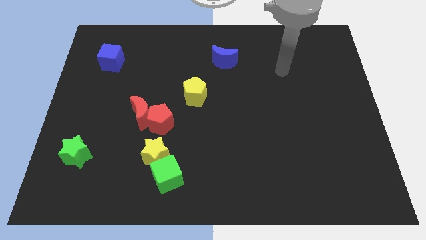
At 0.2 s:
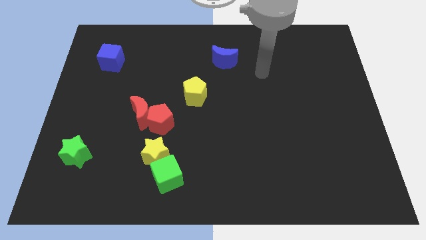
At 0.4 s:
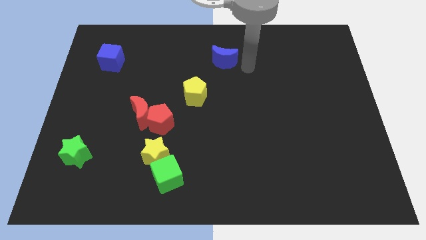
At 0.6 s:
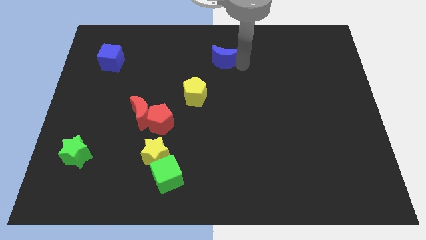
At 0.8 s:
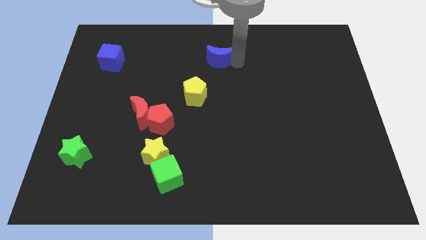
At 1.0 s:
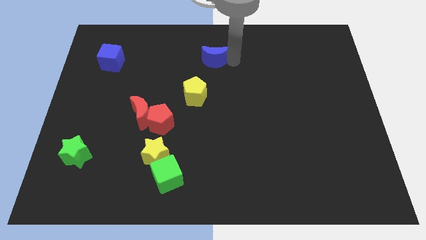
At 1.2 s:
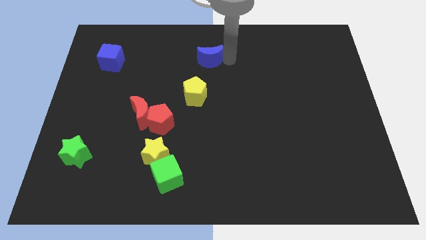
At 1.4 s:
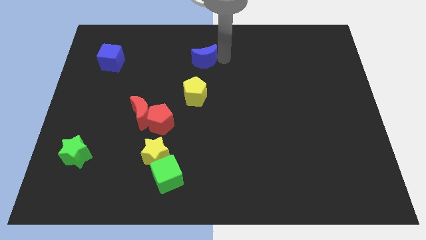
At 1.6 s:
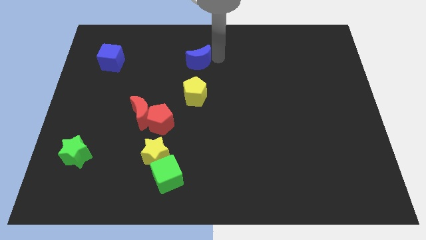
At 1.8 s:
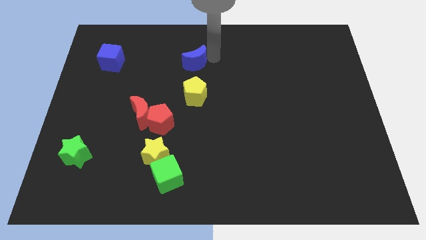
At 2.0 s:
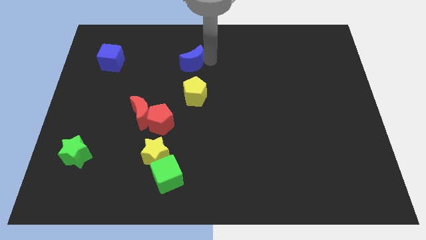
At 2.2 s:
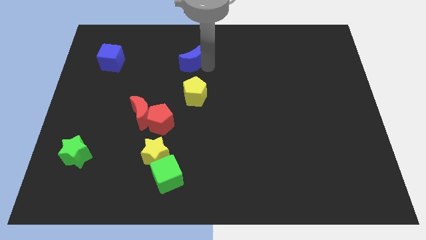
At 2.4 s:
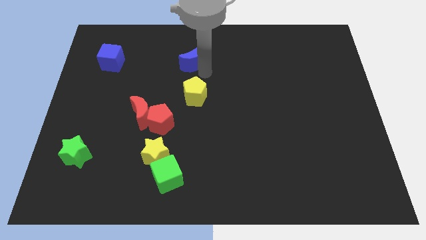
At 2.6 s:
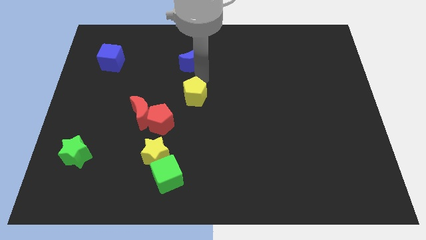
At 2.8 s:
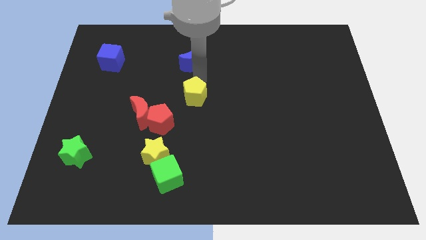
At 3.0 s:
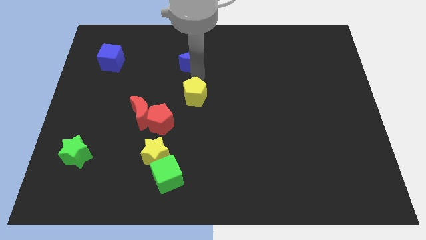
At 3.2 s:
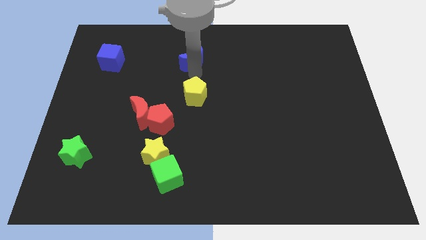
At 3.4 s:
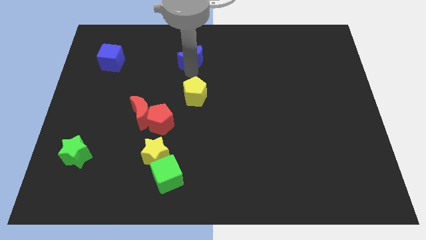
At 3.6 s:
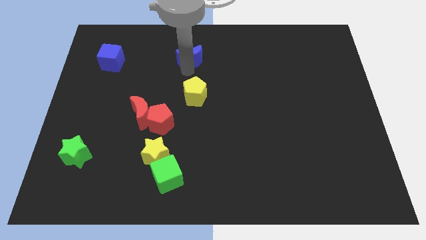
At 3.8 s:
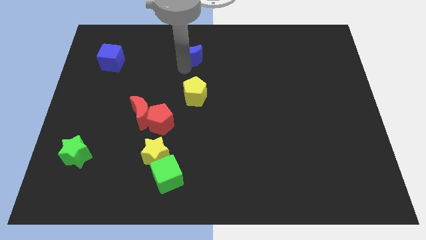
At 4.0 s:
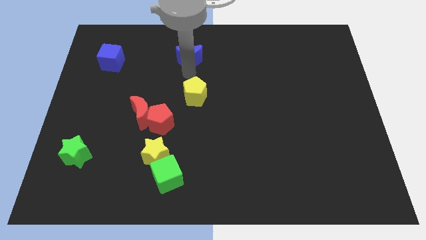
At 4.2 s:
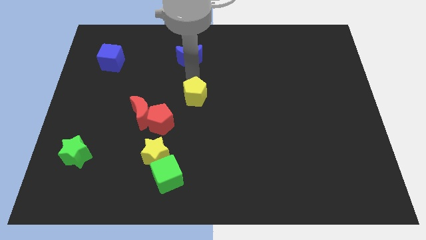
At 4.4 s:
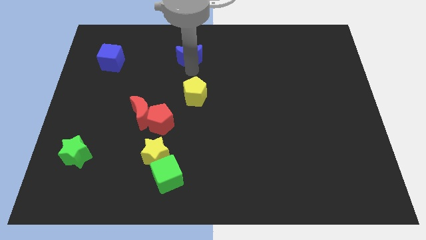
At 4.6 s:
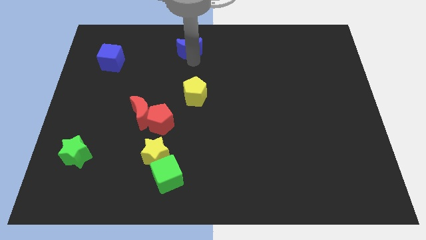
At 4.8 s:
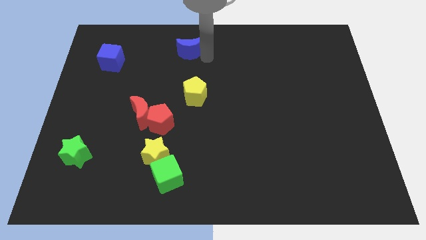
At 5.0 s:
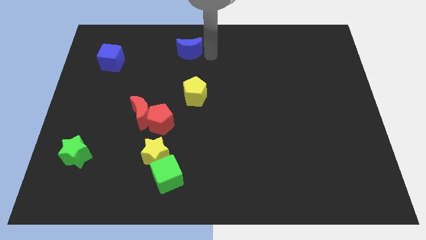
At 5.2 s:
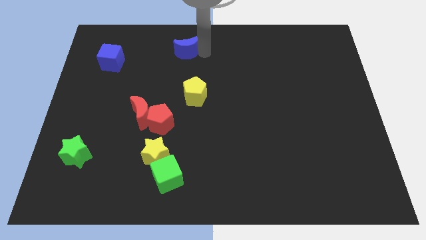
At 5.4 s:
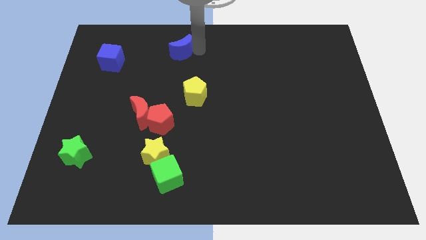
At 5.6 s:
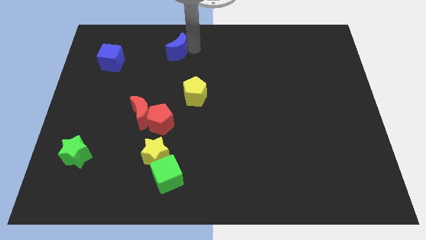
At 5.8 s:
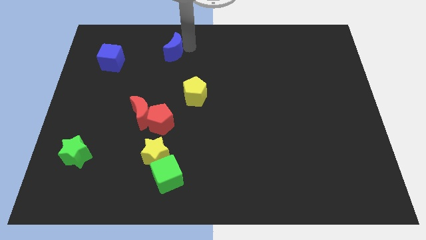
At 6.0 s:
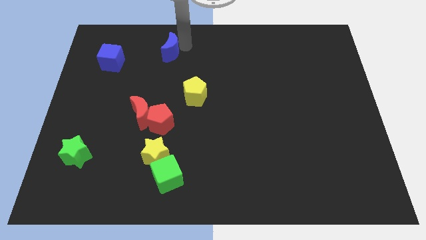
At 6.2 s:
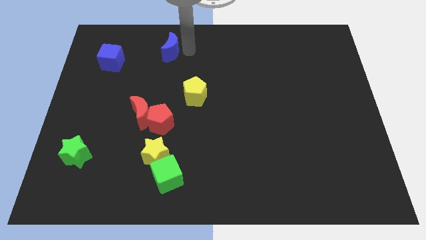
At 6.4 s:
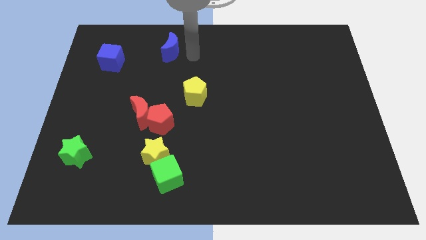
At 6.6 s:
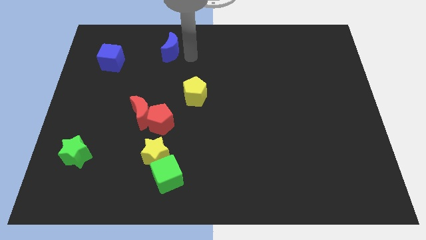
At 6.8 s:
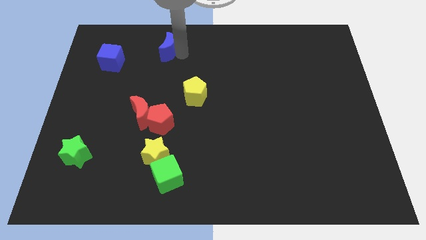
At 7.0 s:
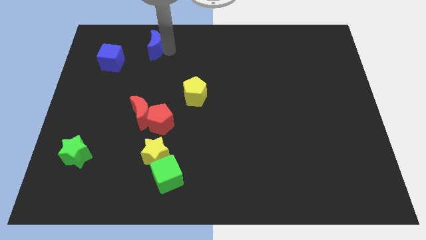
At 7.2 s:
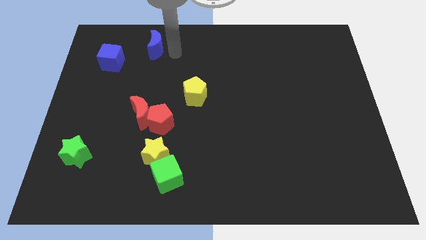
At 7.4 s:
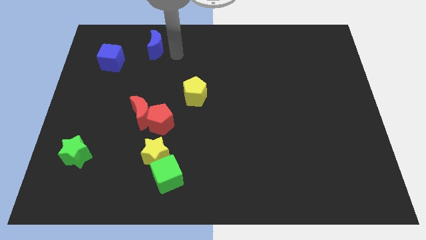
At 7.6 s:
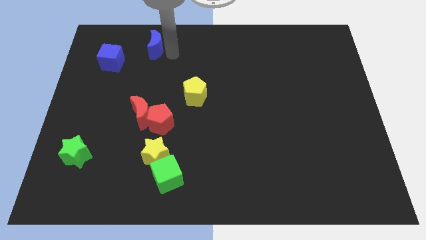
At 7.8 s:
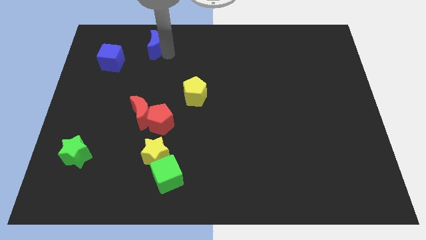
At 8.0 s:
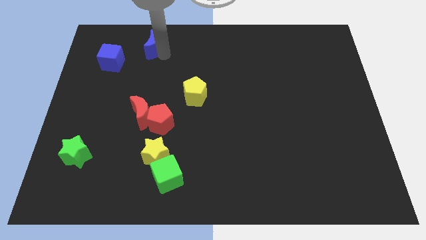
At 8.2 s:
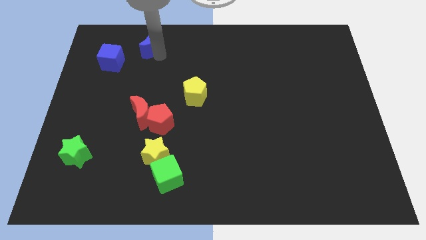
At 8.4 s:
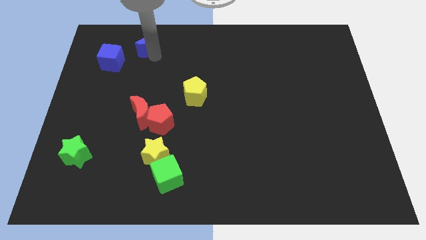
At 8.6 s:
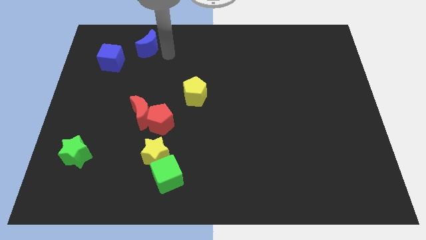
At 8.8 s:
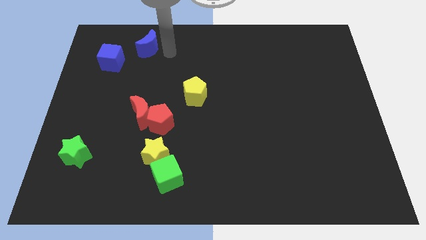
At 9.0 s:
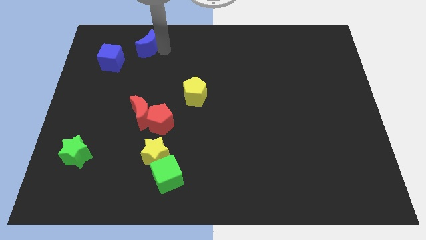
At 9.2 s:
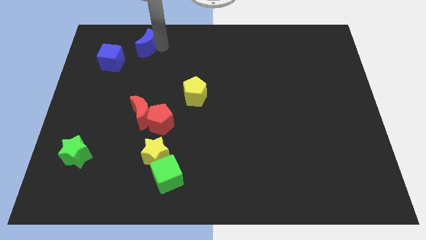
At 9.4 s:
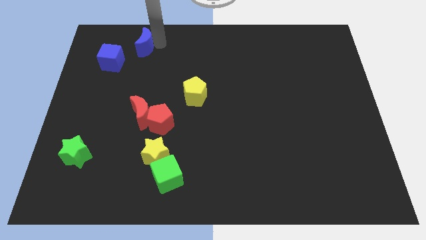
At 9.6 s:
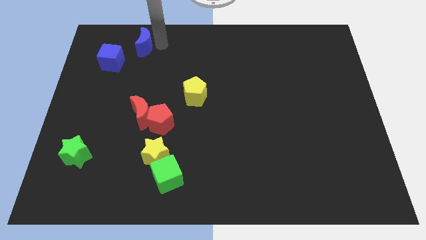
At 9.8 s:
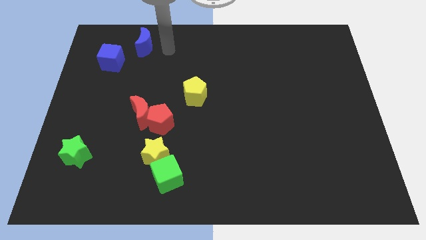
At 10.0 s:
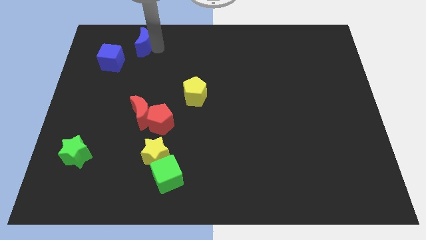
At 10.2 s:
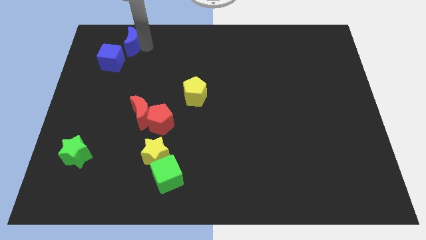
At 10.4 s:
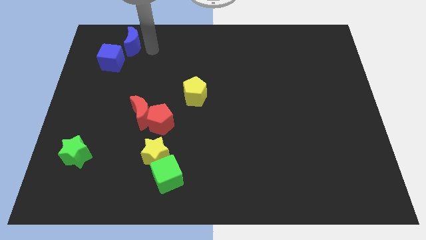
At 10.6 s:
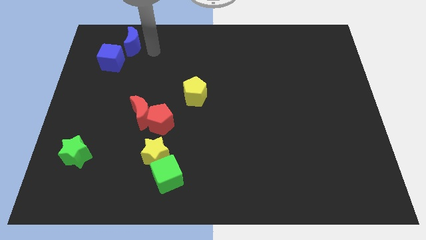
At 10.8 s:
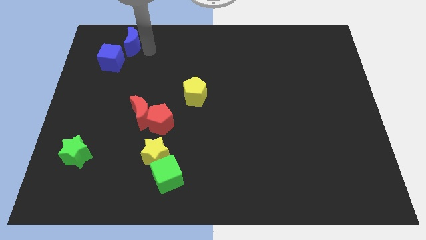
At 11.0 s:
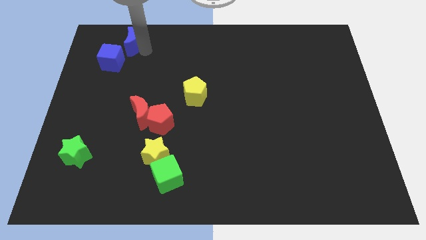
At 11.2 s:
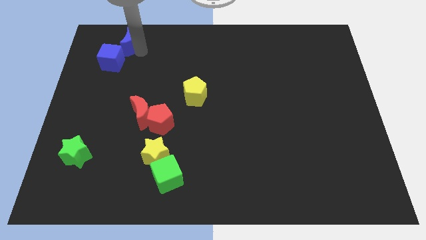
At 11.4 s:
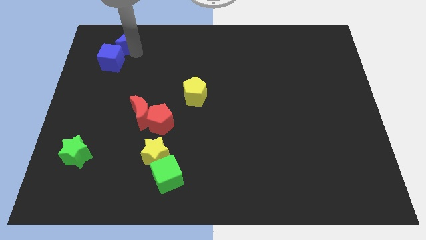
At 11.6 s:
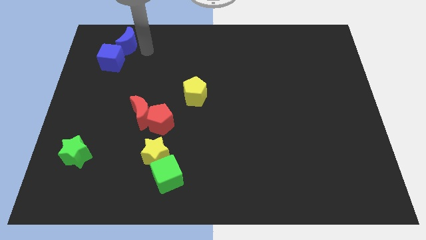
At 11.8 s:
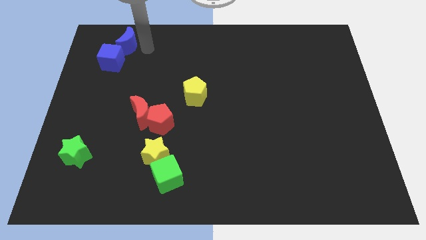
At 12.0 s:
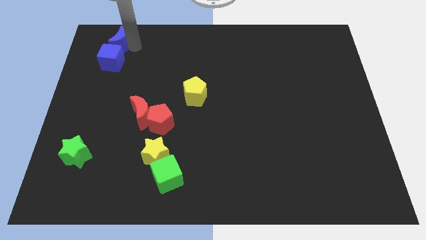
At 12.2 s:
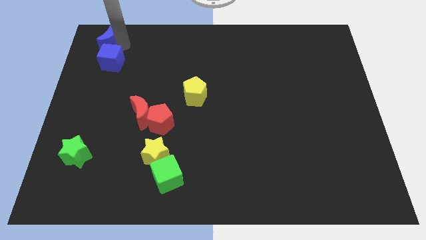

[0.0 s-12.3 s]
push the blue moon to the upper left corner
